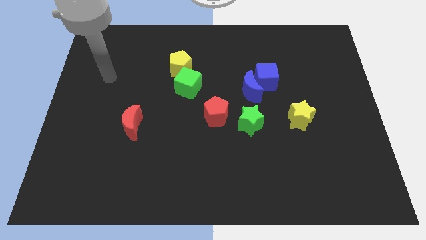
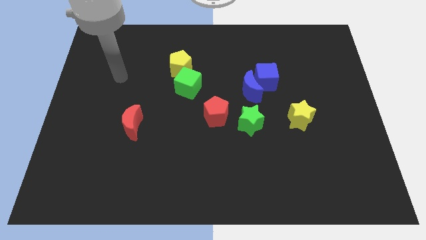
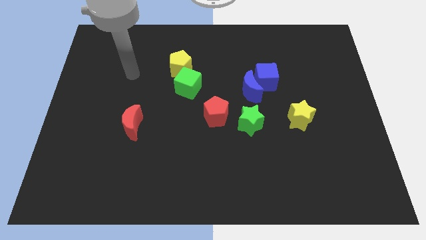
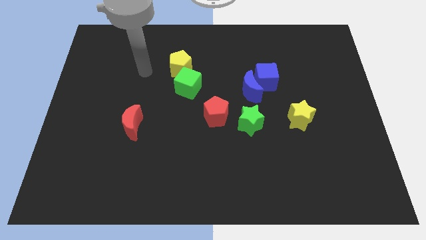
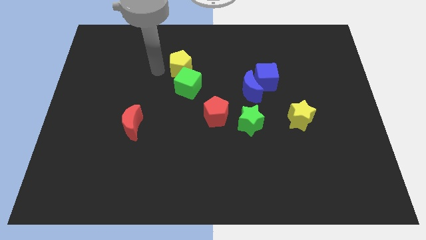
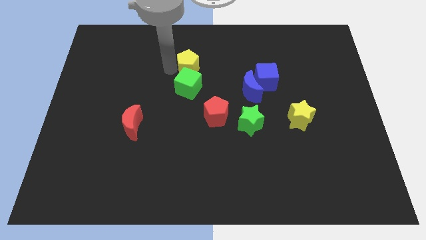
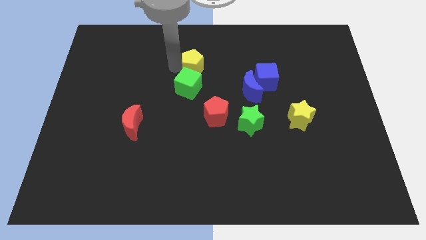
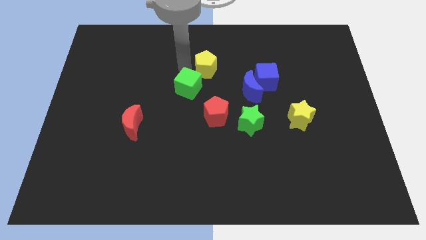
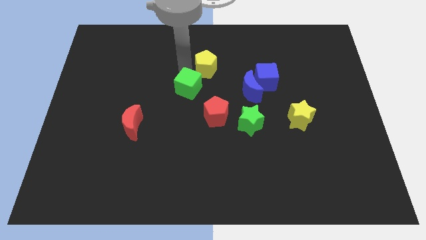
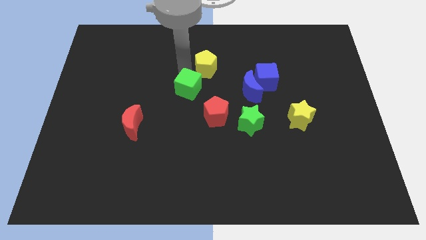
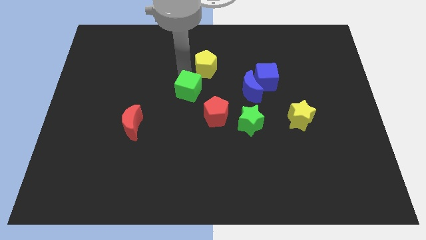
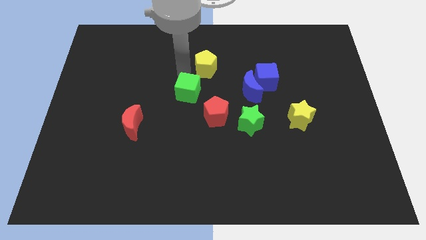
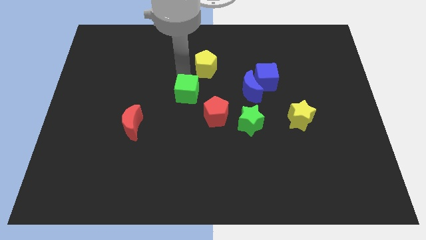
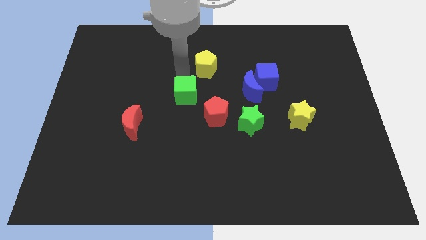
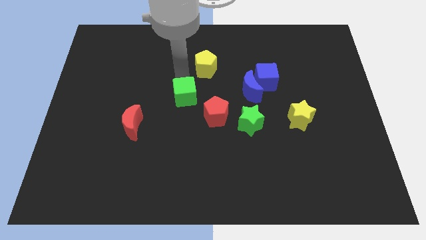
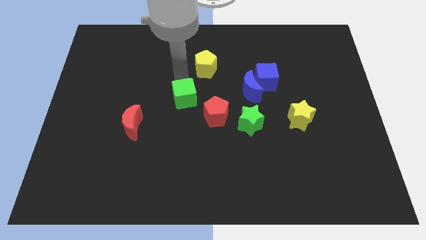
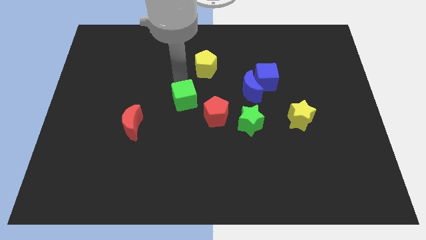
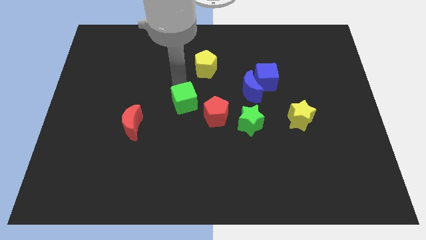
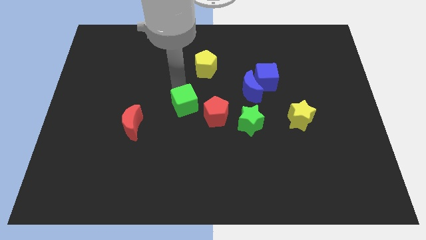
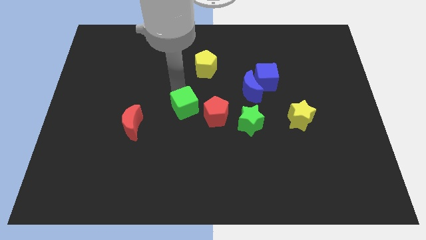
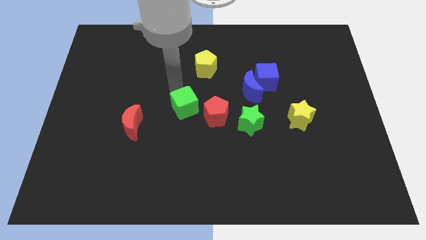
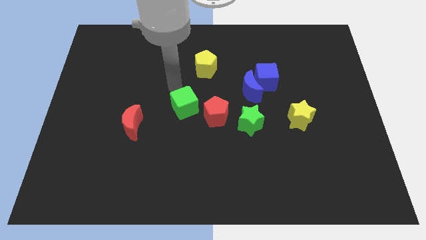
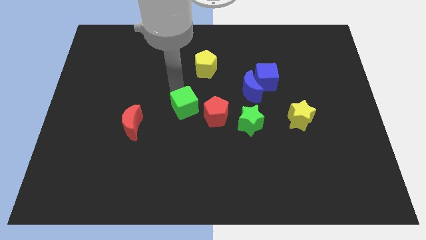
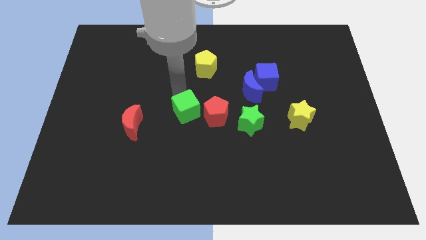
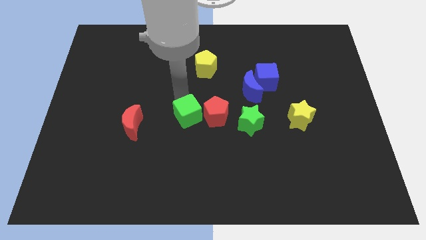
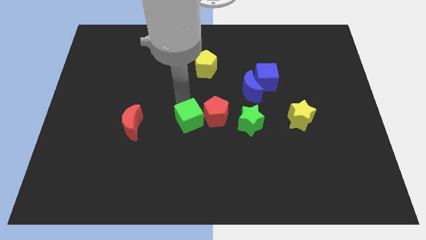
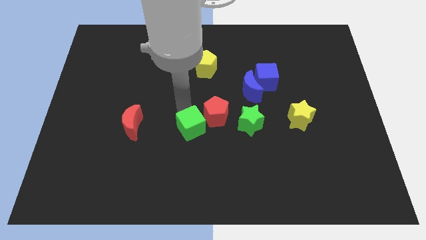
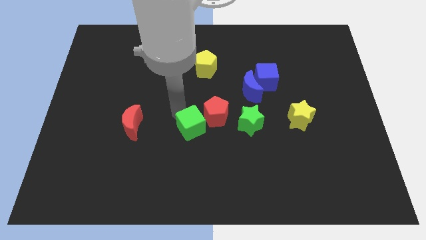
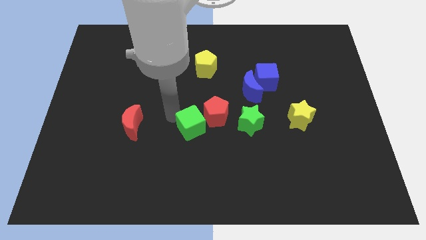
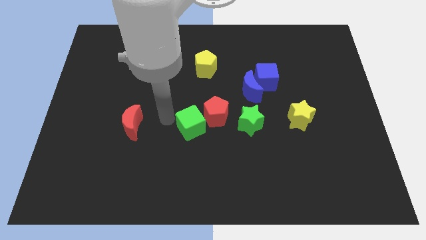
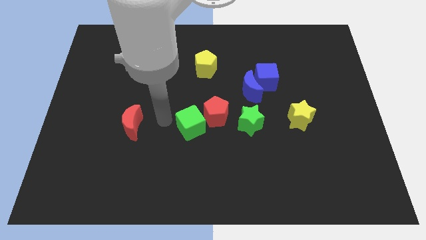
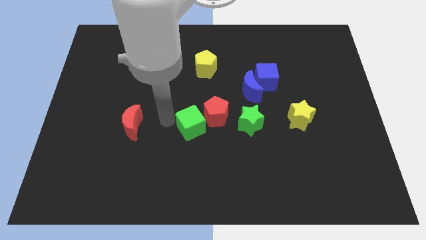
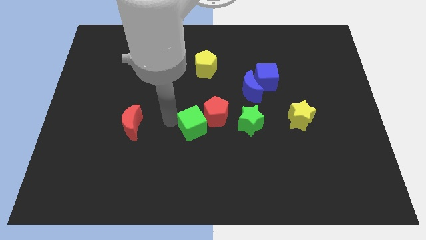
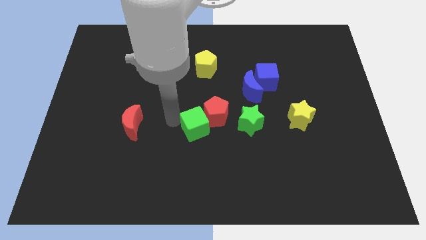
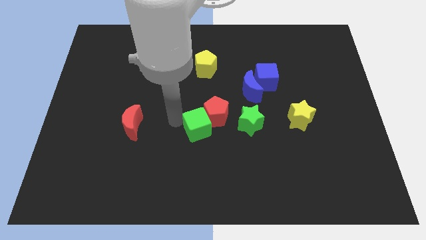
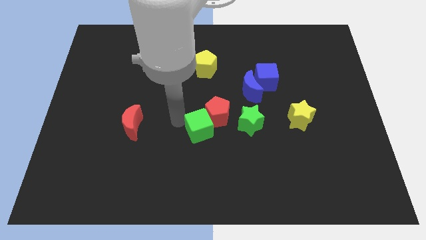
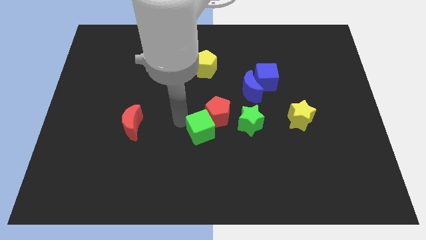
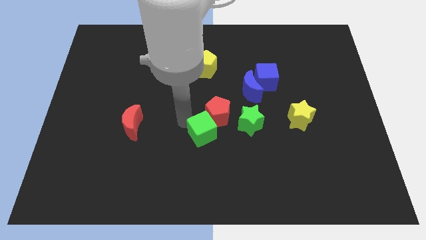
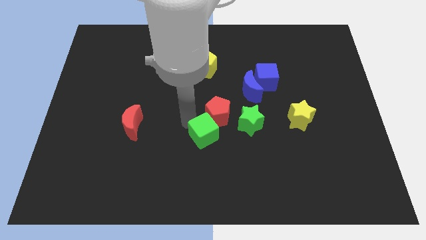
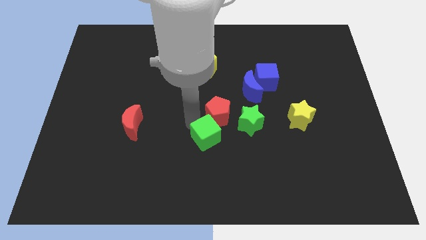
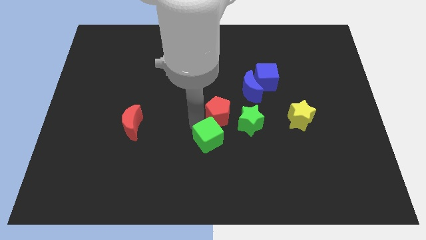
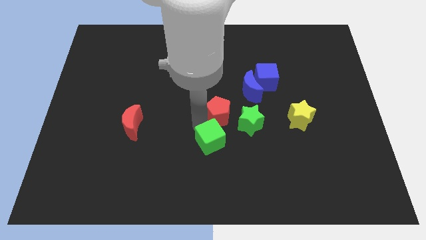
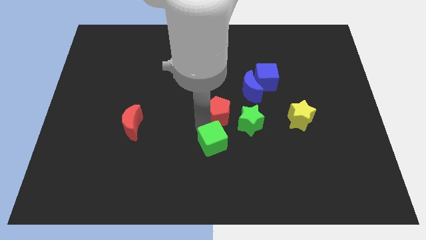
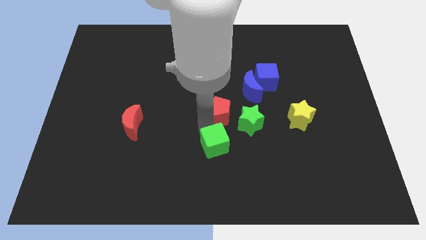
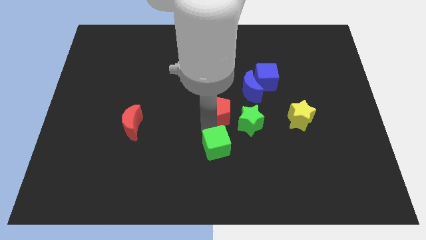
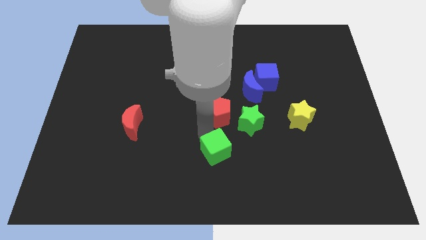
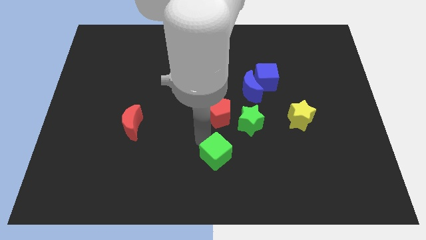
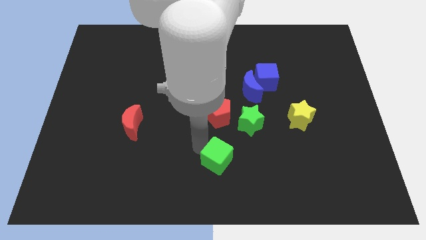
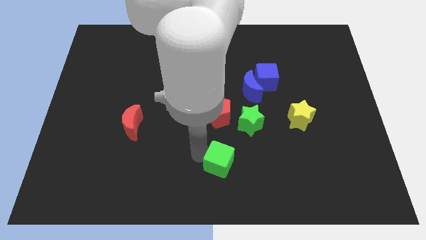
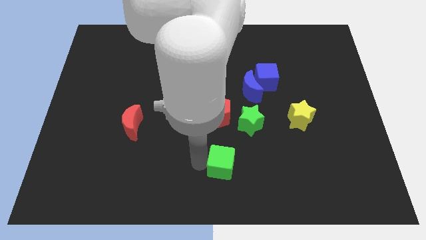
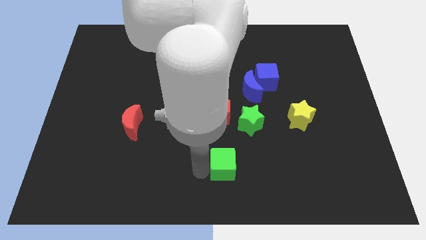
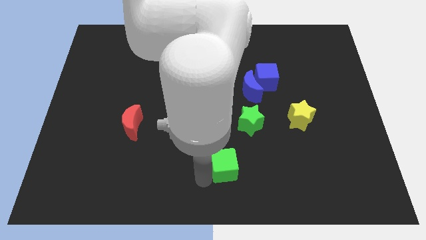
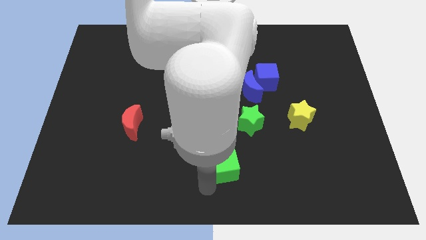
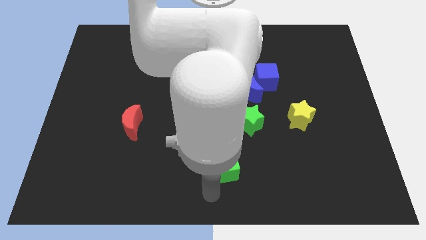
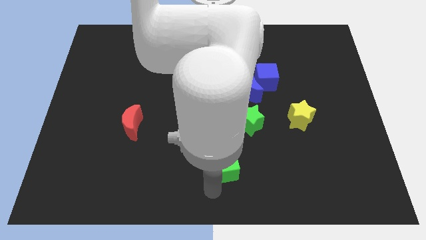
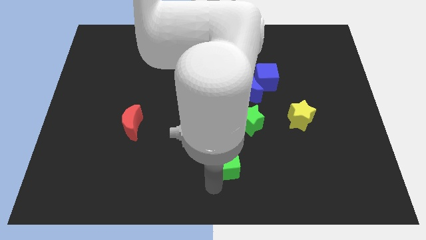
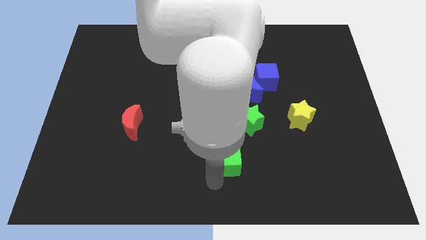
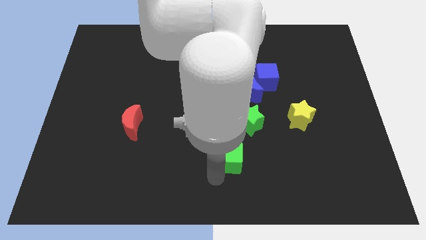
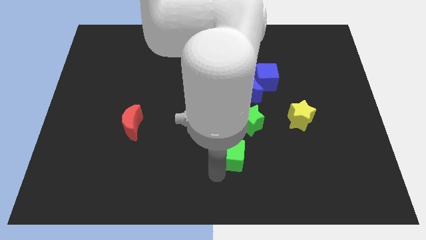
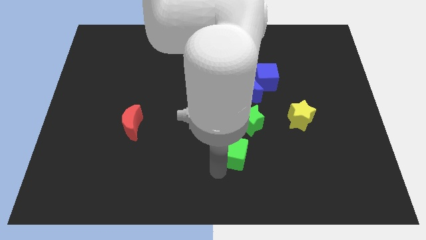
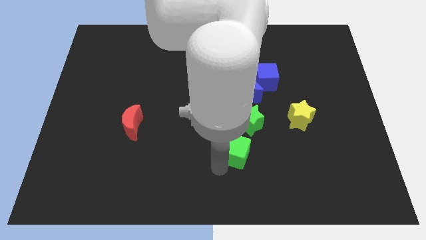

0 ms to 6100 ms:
move the green cube to the bottom right of the red pentagon

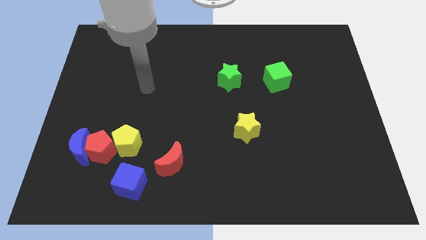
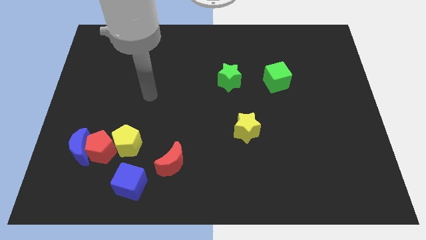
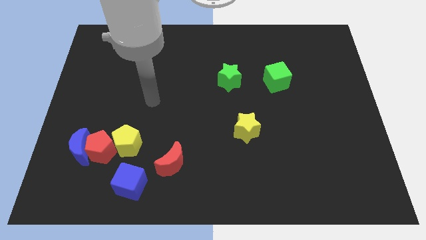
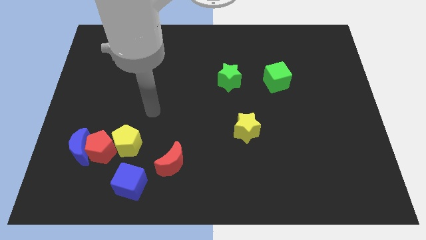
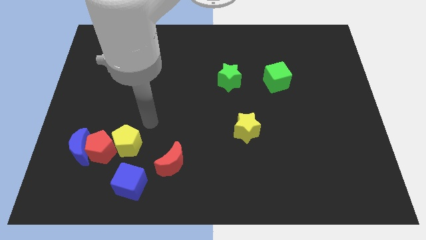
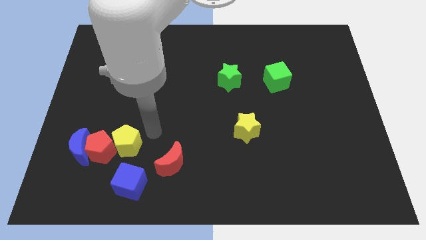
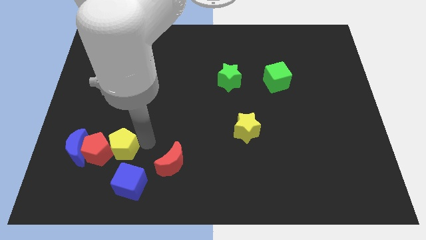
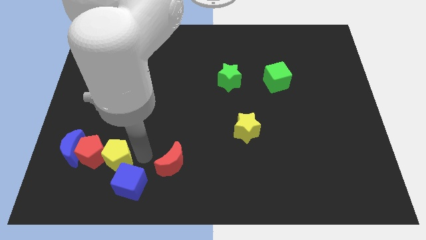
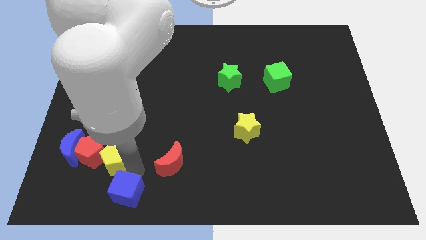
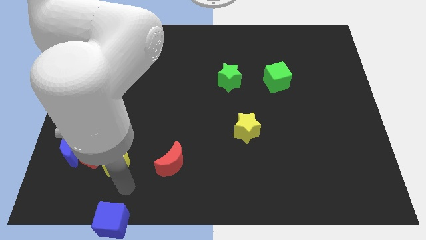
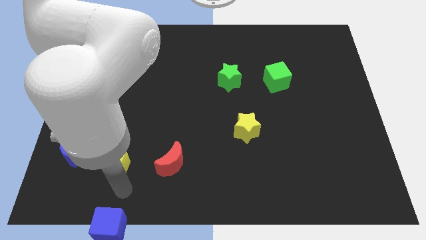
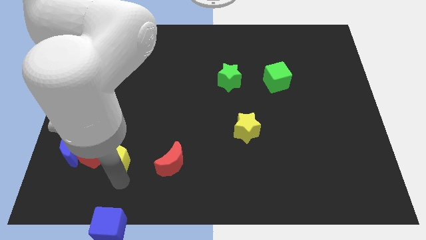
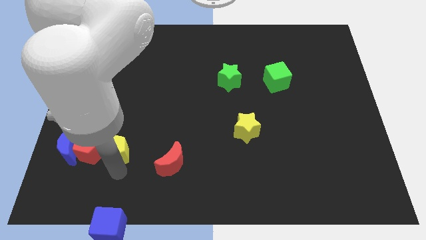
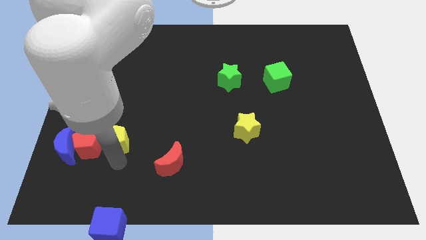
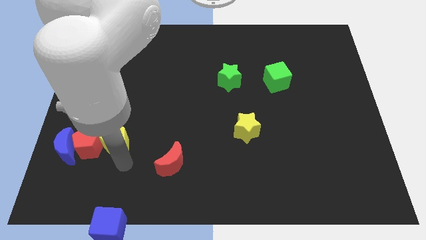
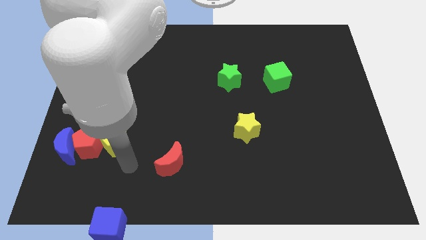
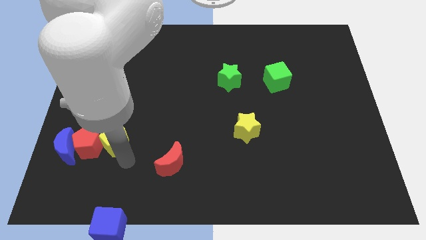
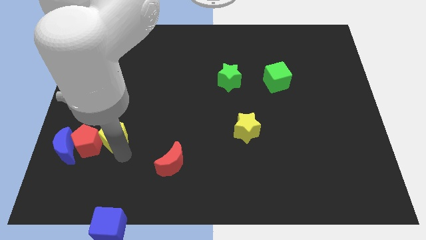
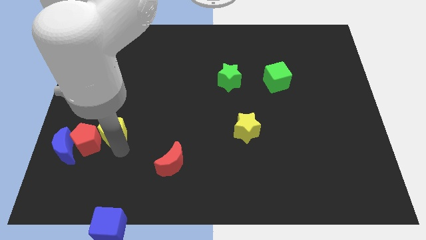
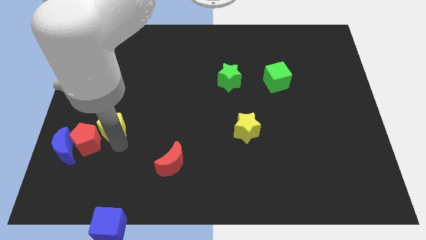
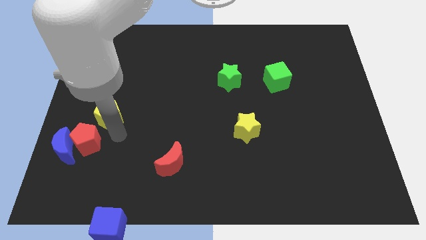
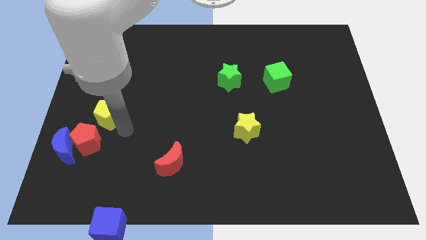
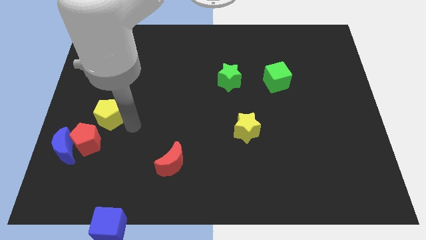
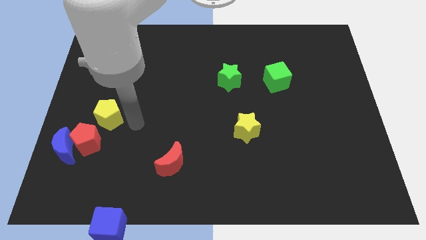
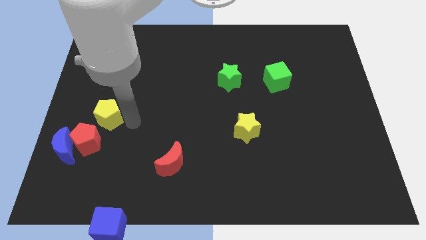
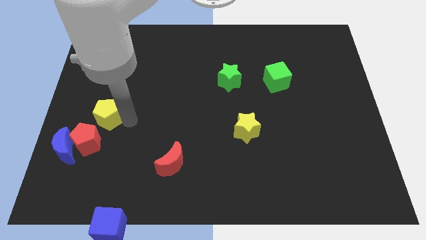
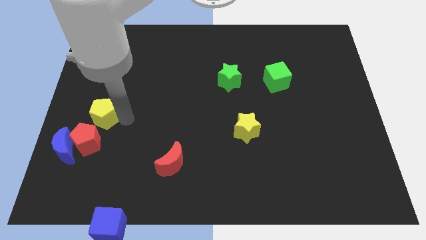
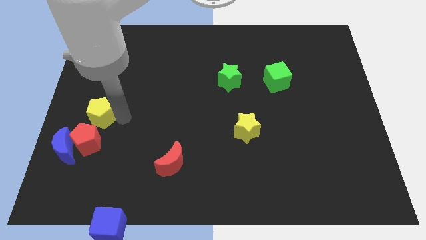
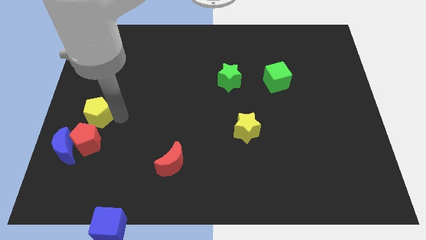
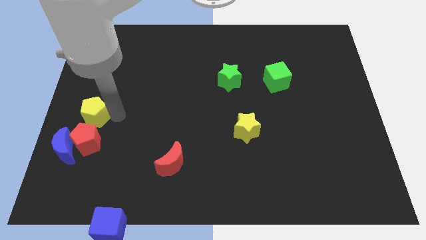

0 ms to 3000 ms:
push the yellow pentagon above the blue moon
